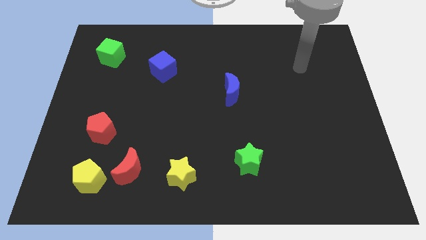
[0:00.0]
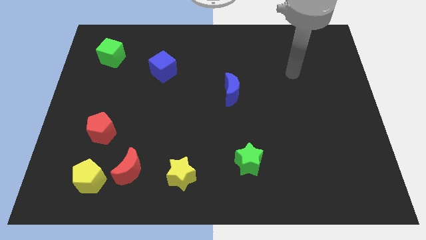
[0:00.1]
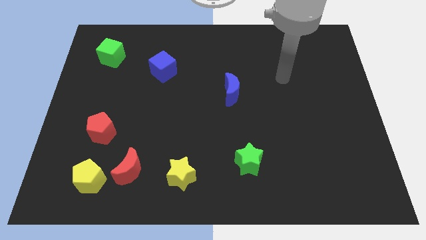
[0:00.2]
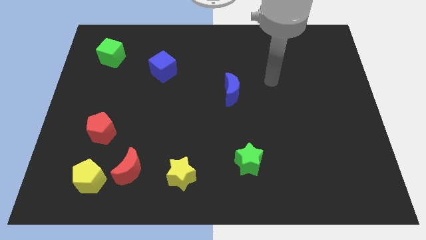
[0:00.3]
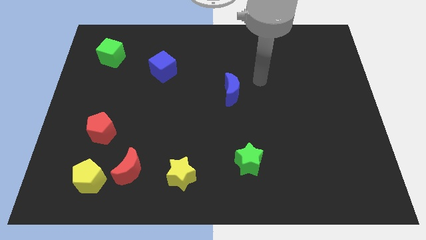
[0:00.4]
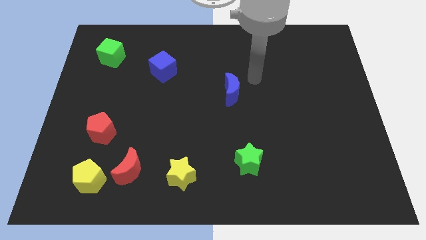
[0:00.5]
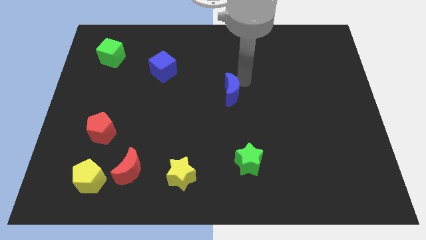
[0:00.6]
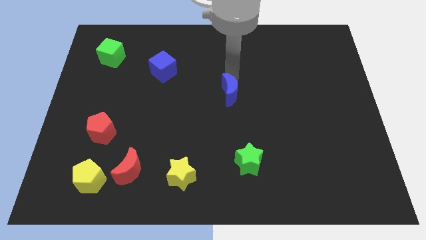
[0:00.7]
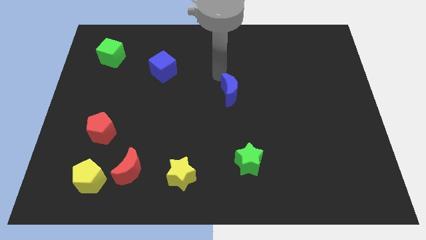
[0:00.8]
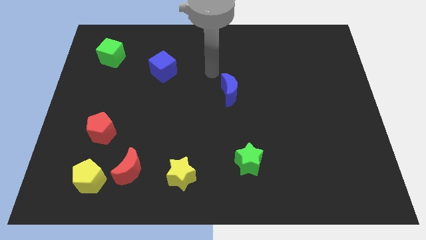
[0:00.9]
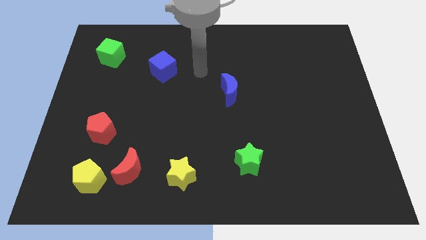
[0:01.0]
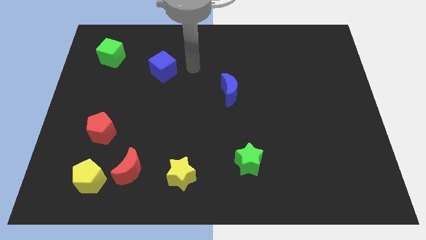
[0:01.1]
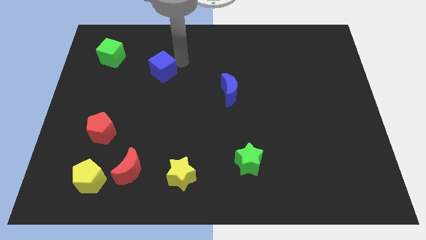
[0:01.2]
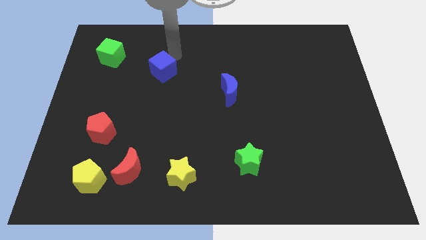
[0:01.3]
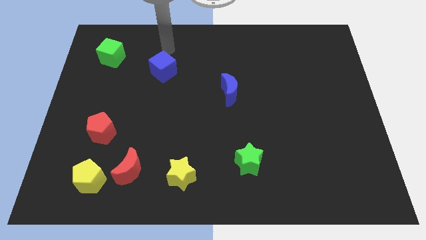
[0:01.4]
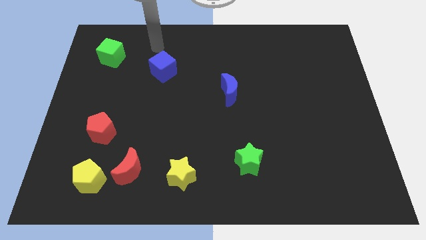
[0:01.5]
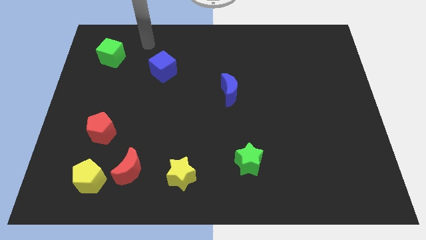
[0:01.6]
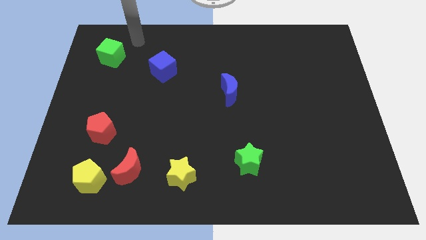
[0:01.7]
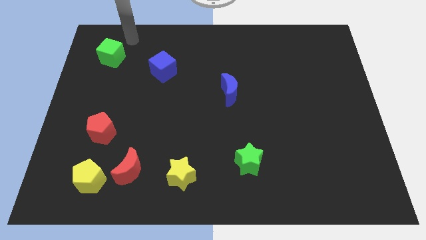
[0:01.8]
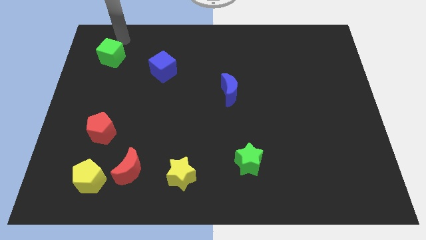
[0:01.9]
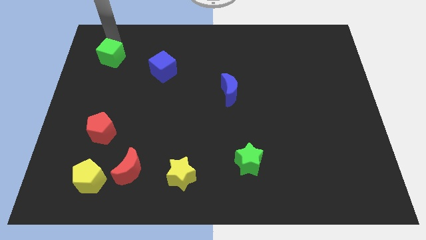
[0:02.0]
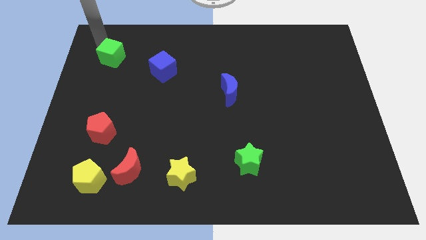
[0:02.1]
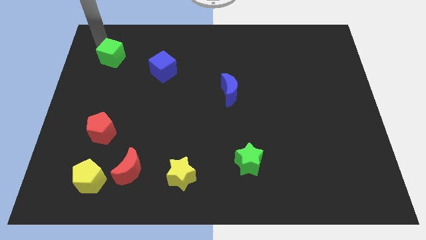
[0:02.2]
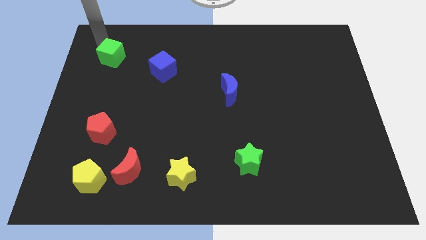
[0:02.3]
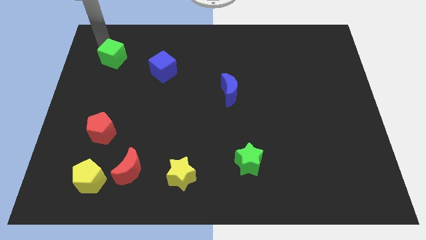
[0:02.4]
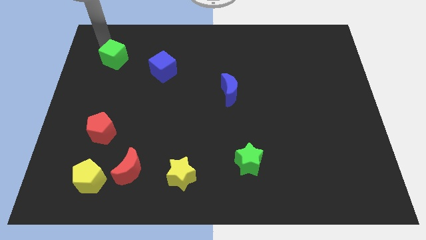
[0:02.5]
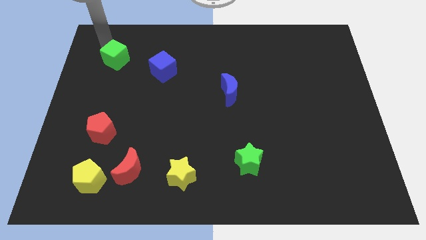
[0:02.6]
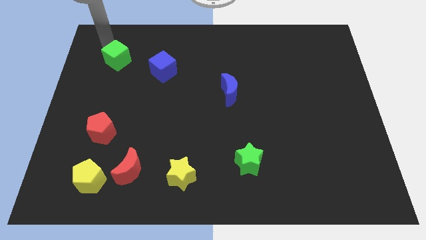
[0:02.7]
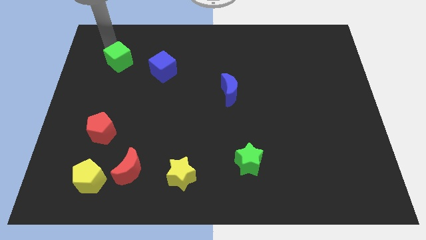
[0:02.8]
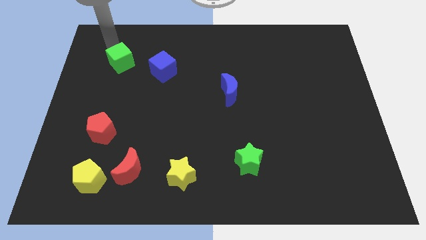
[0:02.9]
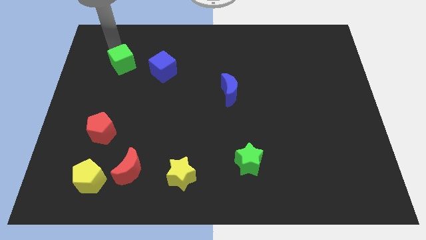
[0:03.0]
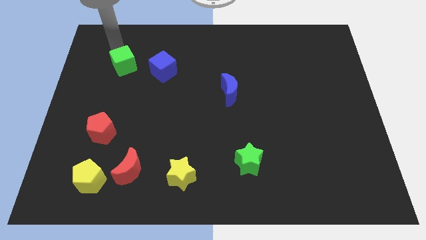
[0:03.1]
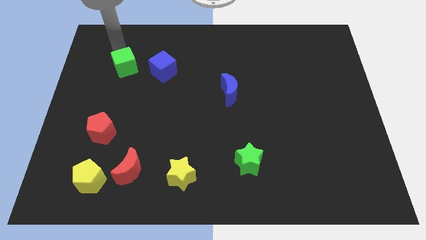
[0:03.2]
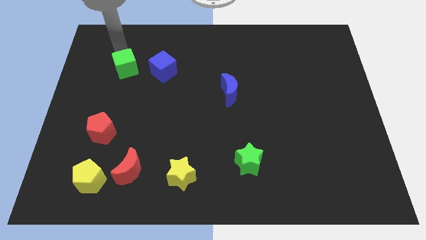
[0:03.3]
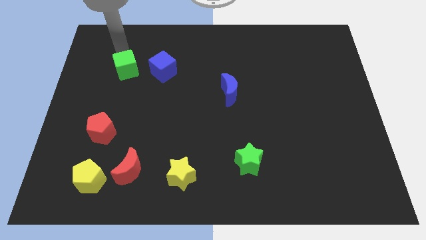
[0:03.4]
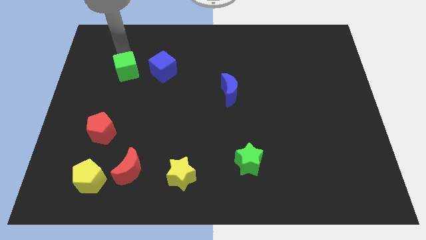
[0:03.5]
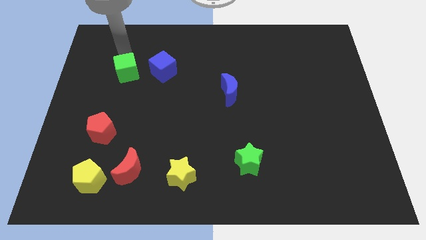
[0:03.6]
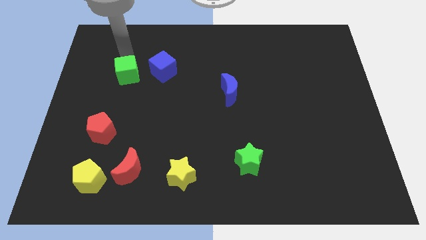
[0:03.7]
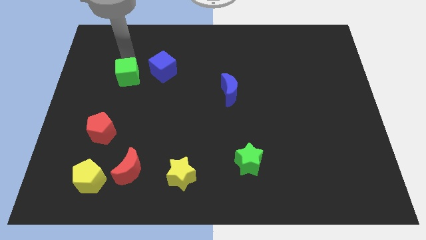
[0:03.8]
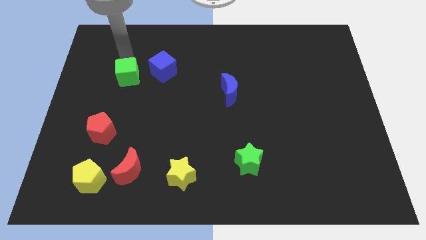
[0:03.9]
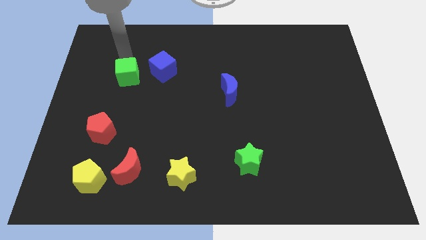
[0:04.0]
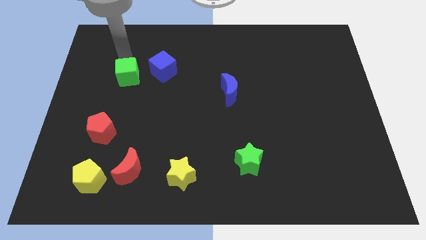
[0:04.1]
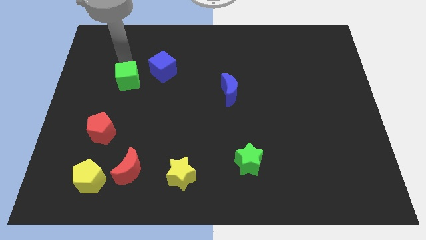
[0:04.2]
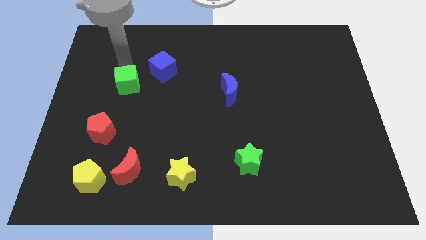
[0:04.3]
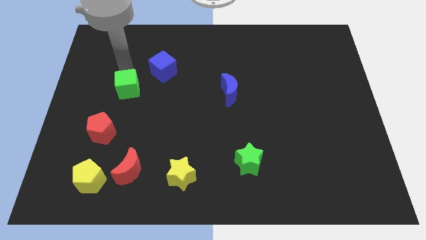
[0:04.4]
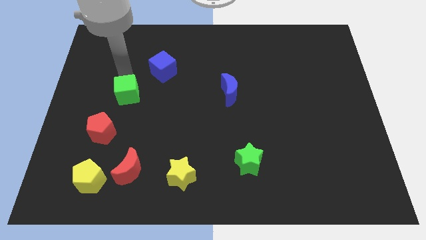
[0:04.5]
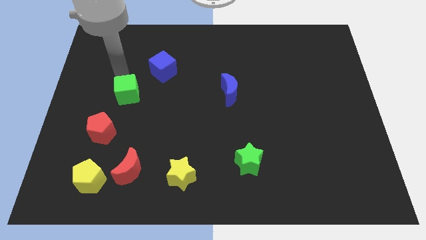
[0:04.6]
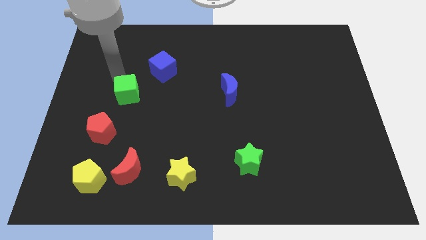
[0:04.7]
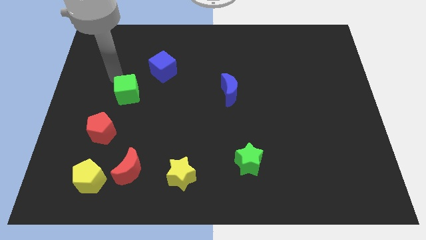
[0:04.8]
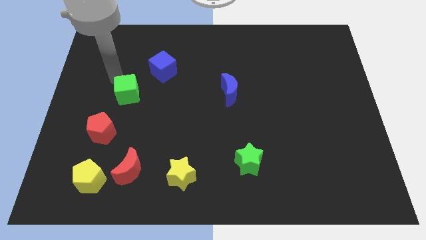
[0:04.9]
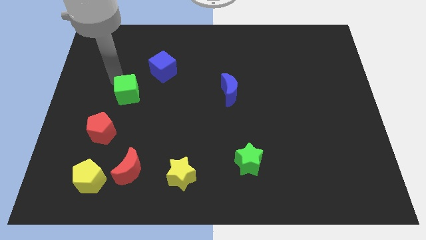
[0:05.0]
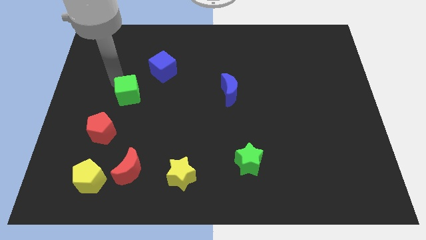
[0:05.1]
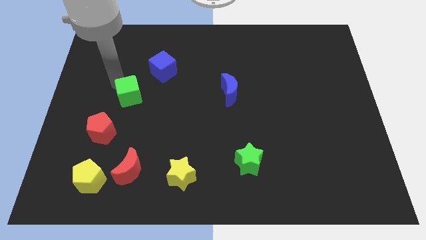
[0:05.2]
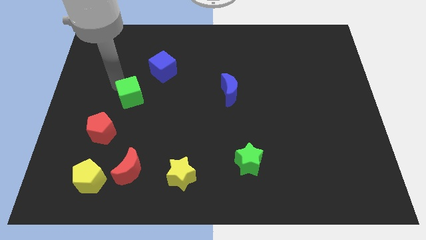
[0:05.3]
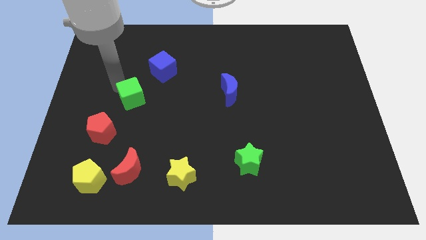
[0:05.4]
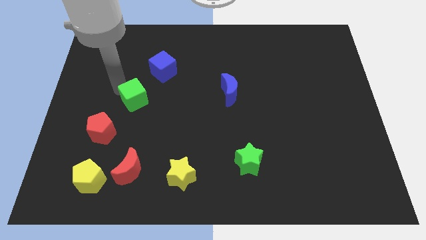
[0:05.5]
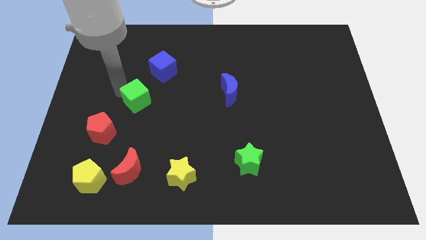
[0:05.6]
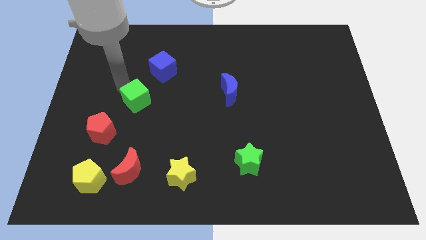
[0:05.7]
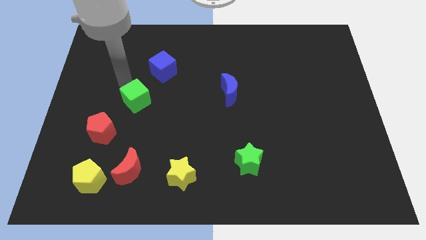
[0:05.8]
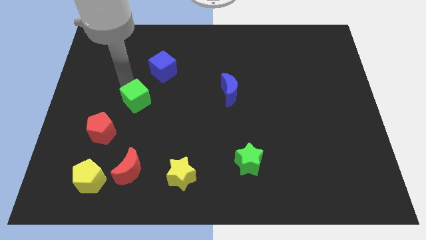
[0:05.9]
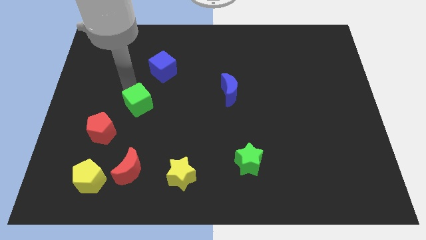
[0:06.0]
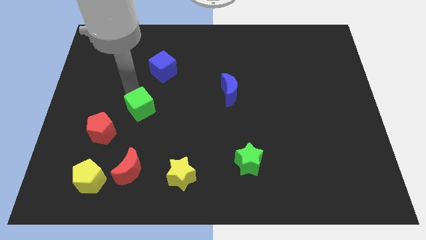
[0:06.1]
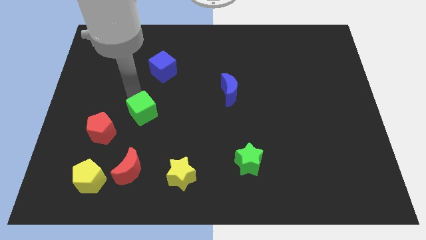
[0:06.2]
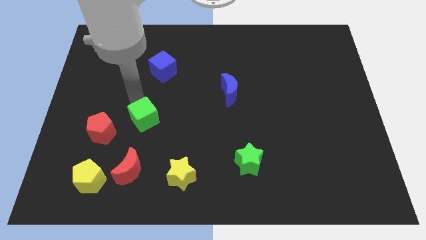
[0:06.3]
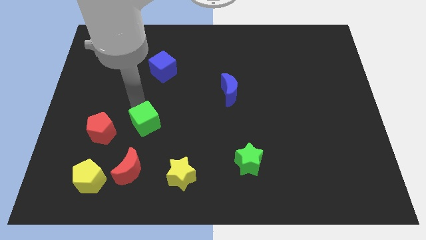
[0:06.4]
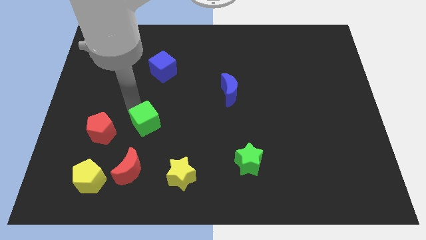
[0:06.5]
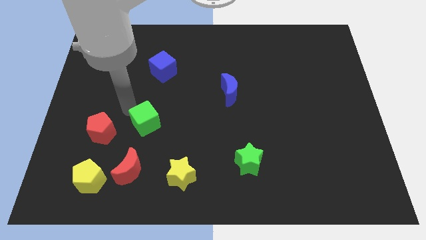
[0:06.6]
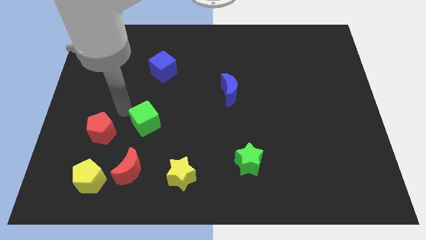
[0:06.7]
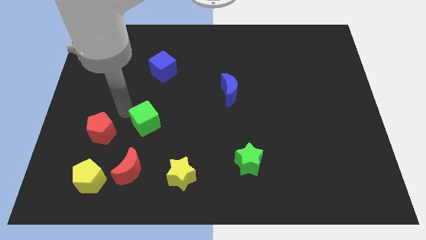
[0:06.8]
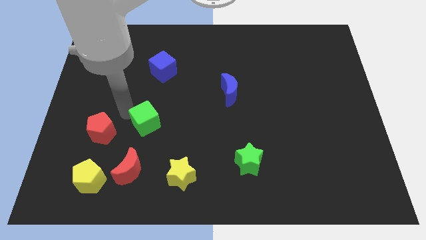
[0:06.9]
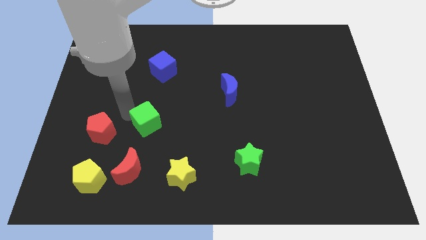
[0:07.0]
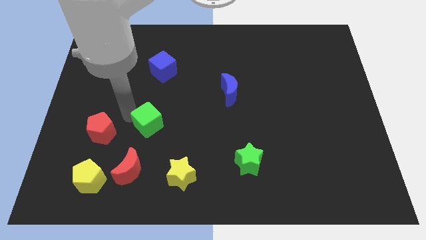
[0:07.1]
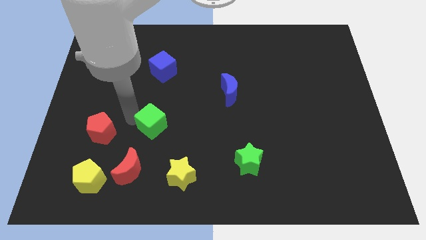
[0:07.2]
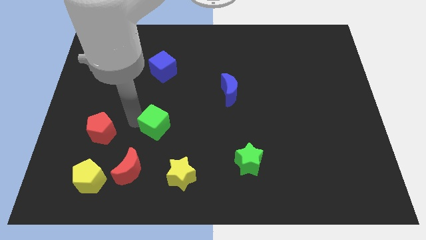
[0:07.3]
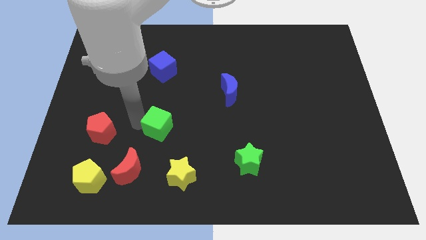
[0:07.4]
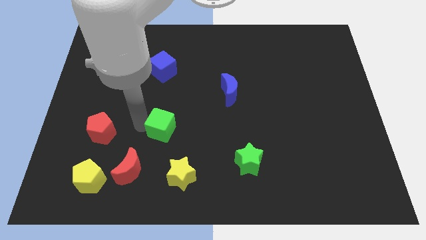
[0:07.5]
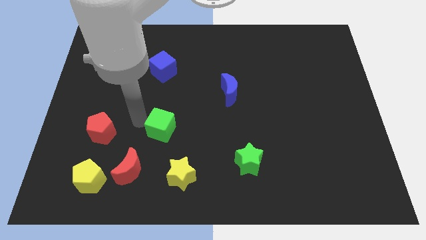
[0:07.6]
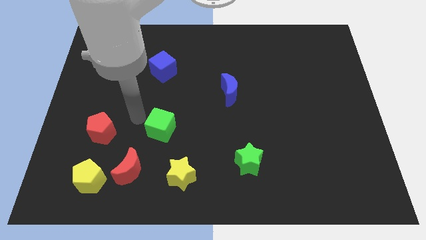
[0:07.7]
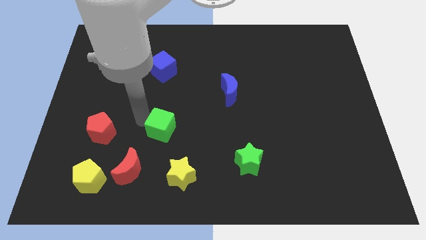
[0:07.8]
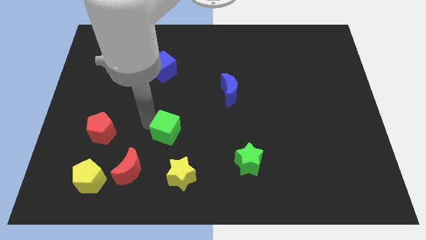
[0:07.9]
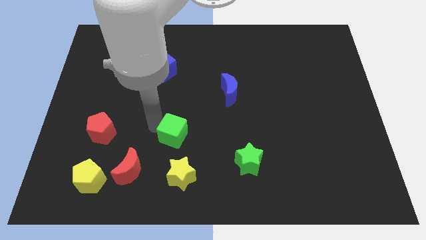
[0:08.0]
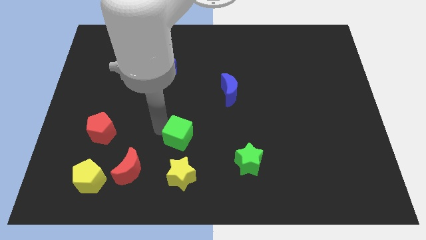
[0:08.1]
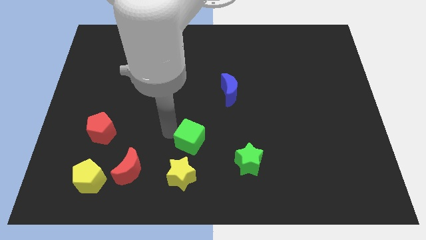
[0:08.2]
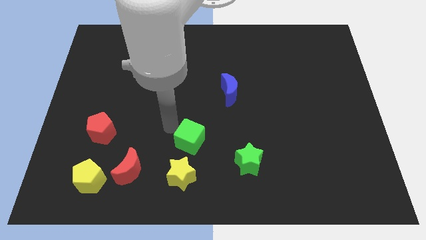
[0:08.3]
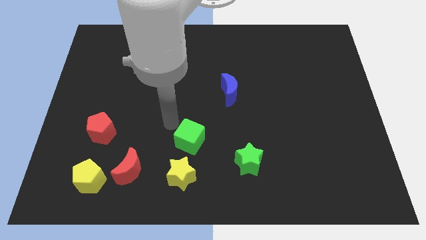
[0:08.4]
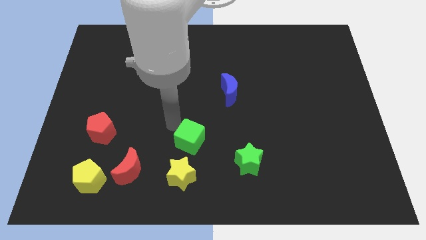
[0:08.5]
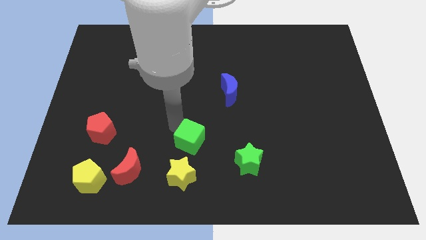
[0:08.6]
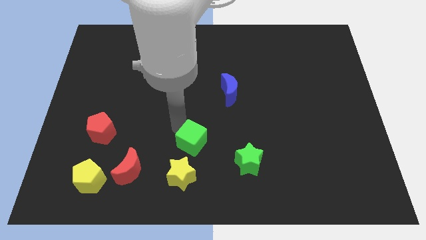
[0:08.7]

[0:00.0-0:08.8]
put the green cube diagonally up and to the right of the yellow star
